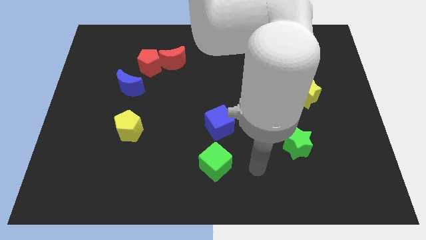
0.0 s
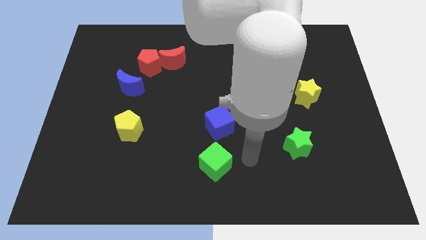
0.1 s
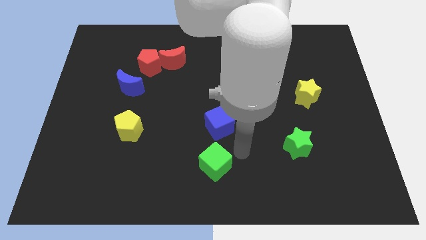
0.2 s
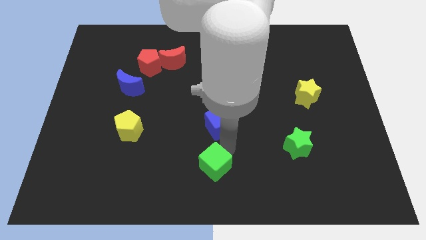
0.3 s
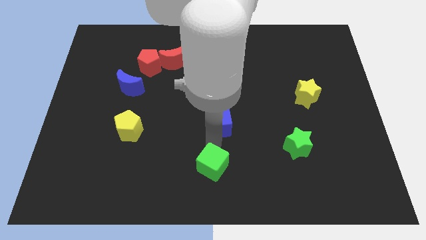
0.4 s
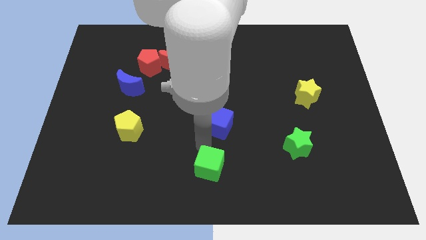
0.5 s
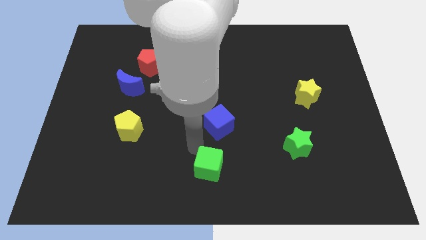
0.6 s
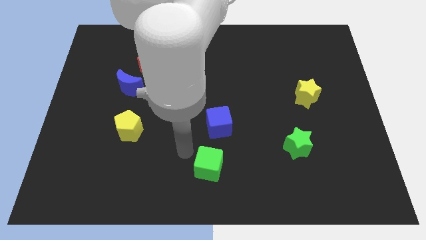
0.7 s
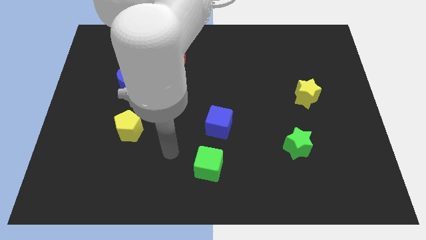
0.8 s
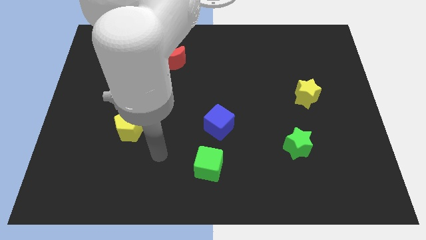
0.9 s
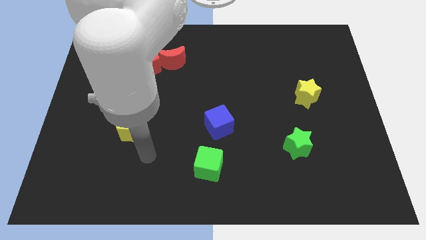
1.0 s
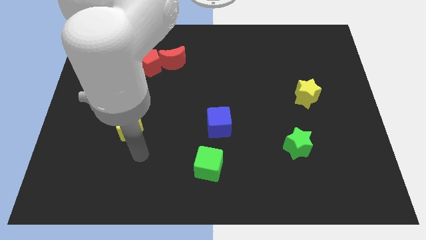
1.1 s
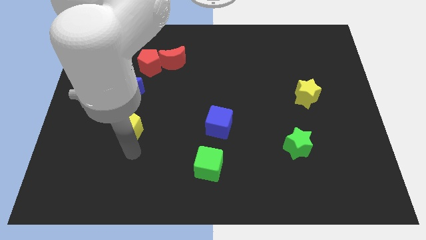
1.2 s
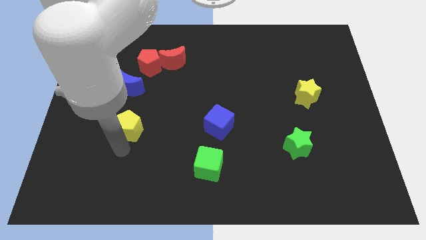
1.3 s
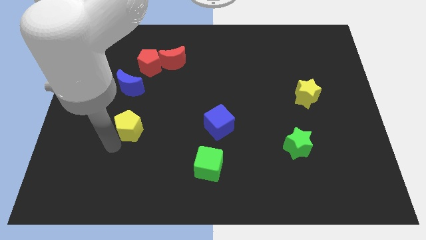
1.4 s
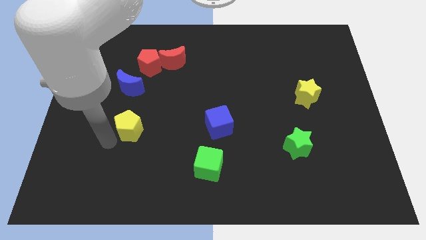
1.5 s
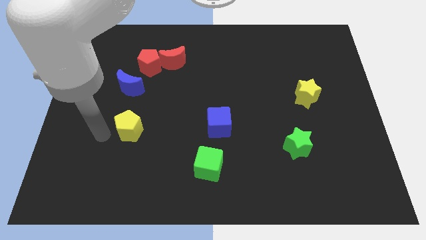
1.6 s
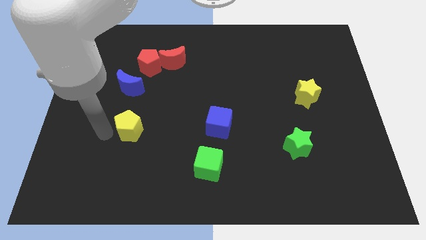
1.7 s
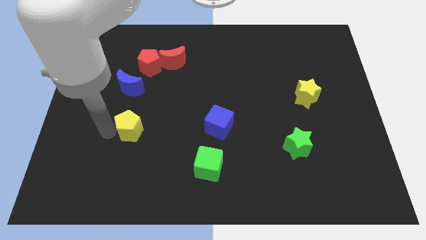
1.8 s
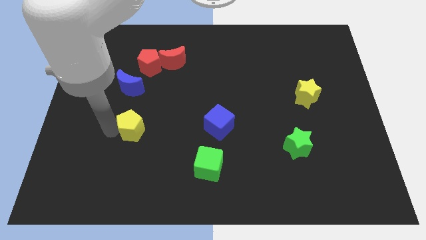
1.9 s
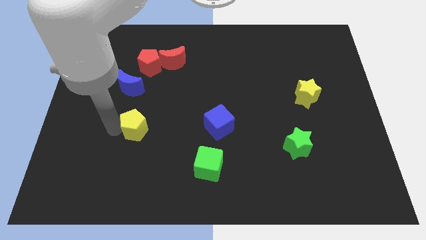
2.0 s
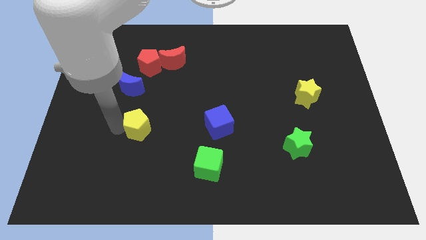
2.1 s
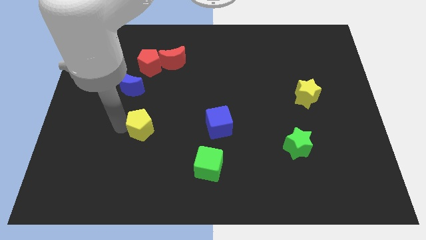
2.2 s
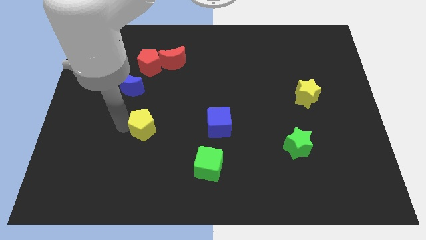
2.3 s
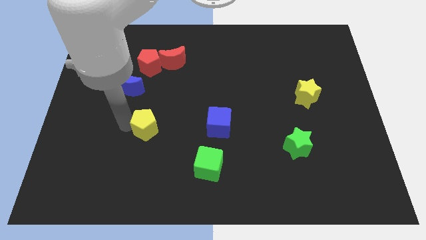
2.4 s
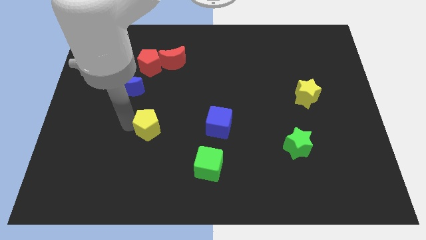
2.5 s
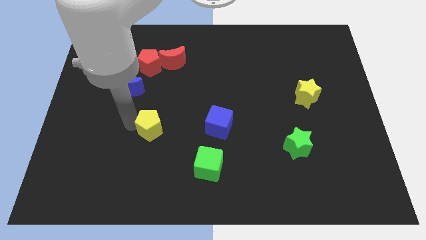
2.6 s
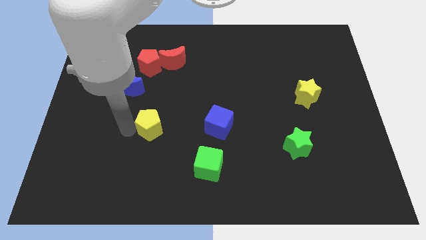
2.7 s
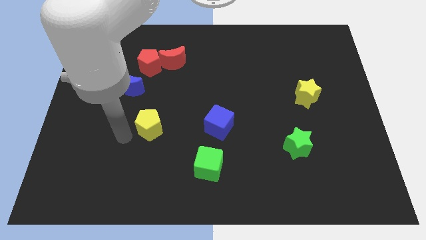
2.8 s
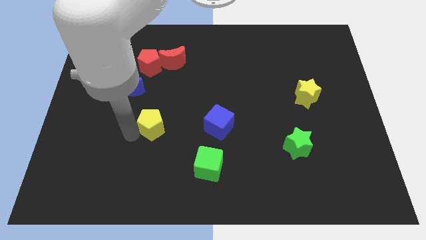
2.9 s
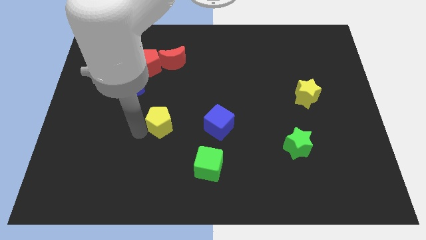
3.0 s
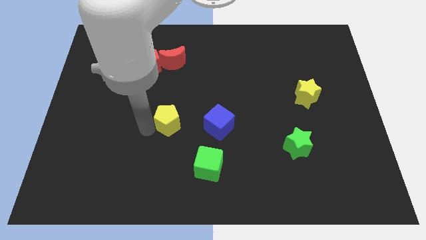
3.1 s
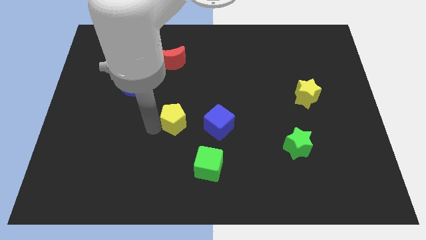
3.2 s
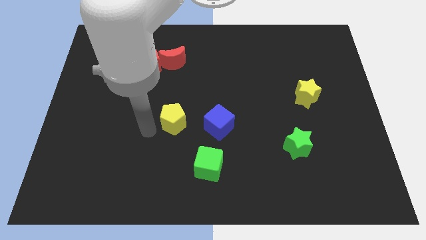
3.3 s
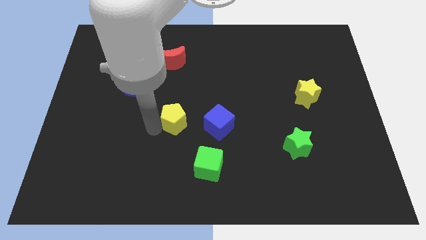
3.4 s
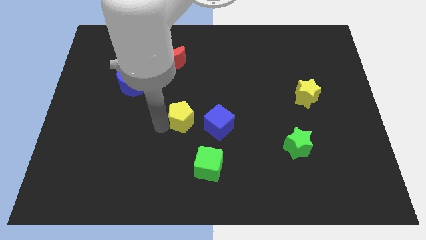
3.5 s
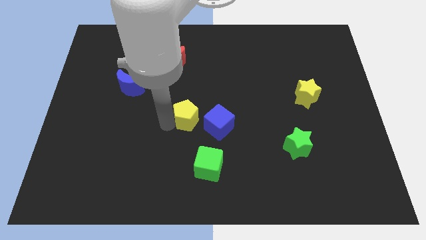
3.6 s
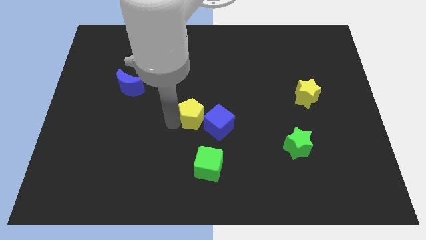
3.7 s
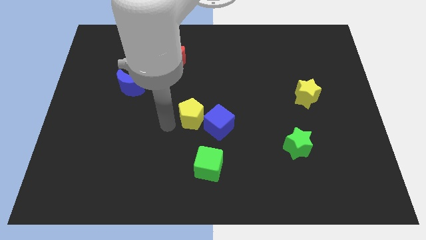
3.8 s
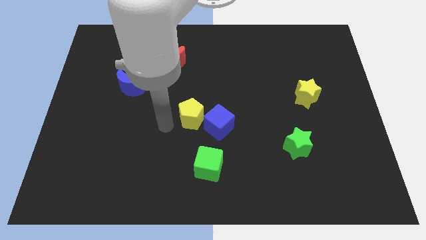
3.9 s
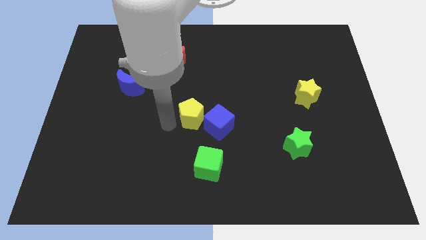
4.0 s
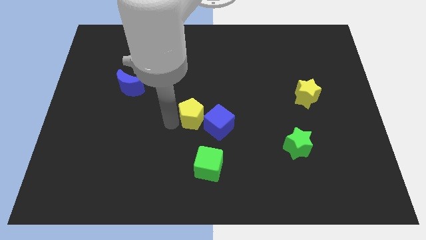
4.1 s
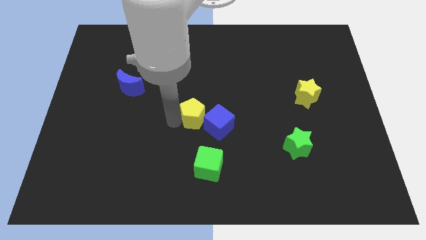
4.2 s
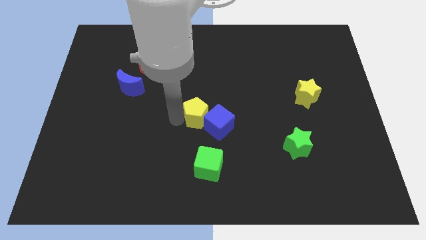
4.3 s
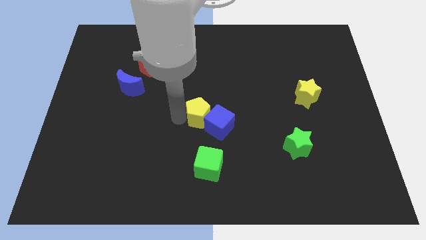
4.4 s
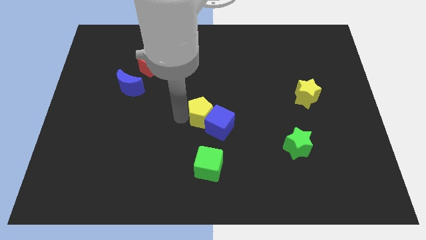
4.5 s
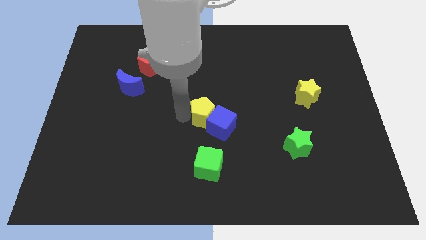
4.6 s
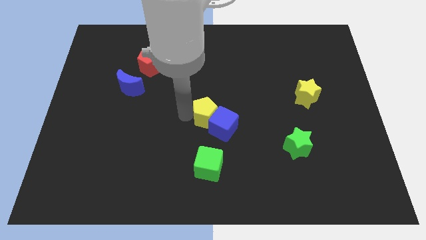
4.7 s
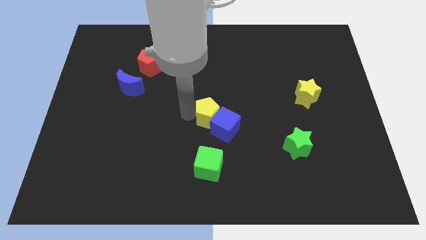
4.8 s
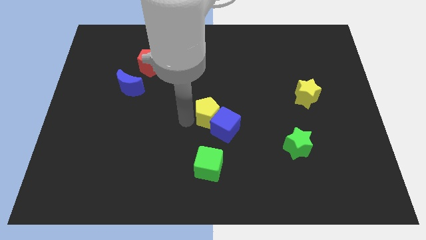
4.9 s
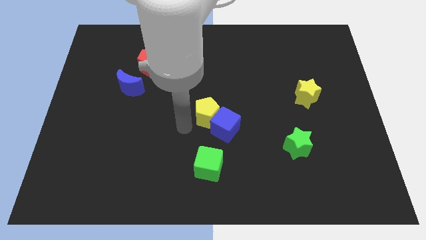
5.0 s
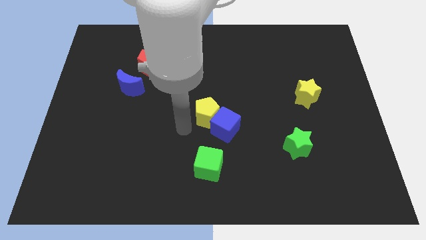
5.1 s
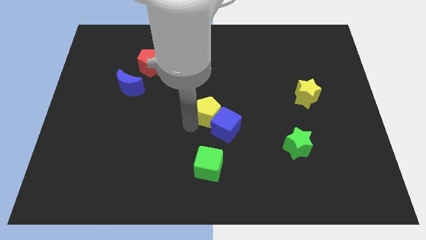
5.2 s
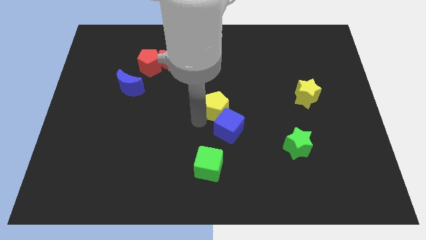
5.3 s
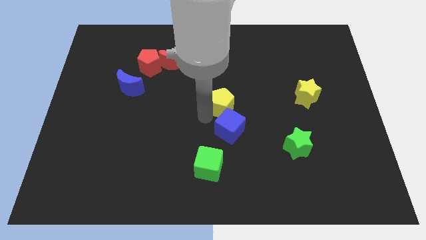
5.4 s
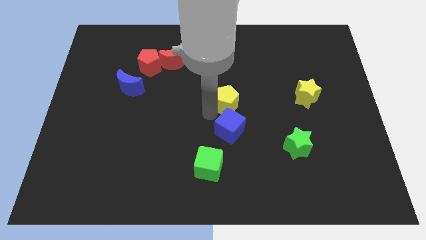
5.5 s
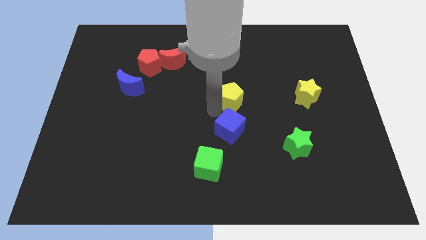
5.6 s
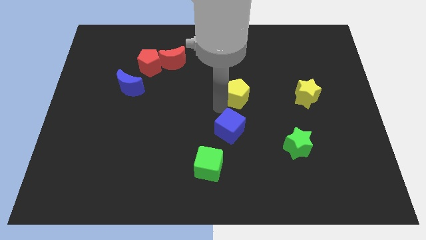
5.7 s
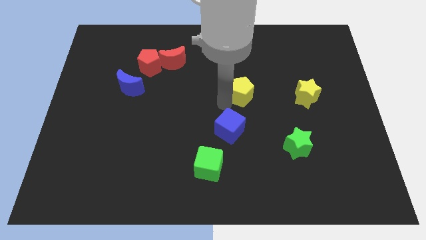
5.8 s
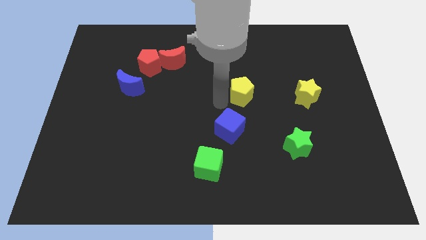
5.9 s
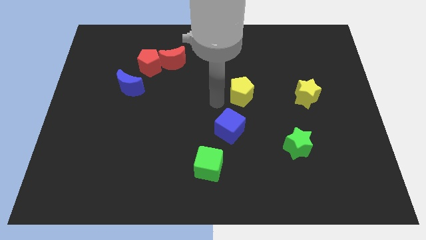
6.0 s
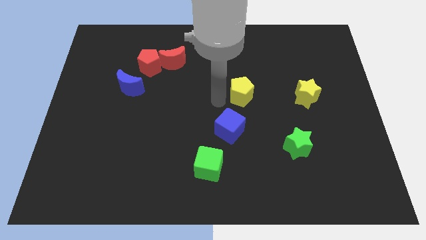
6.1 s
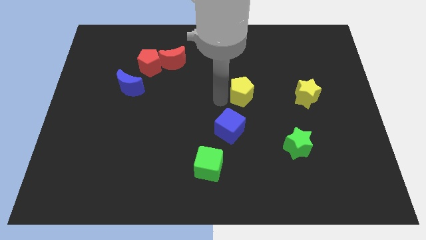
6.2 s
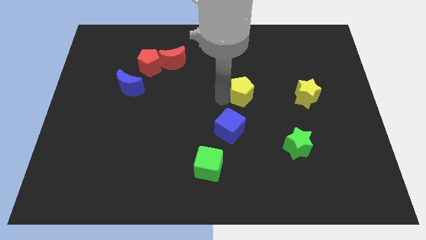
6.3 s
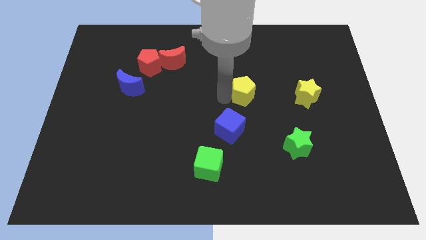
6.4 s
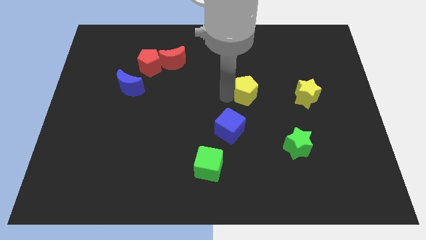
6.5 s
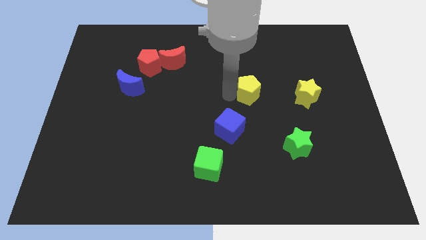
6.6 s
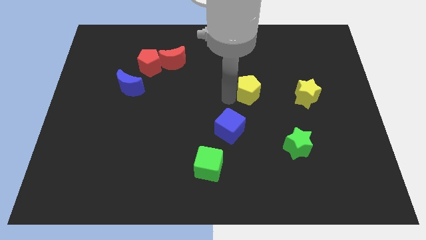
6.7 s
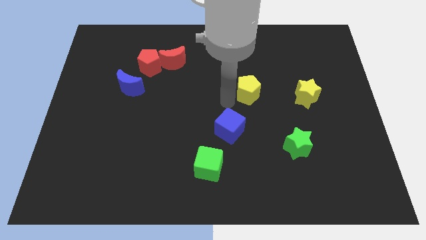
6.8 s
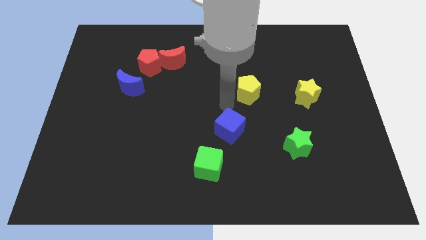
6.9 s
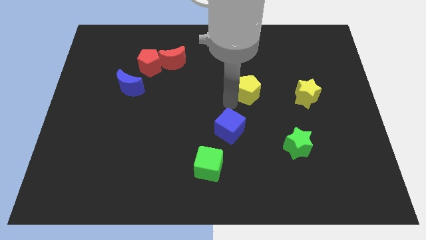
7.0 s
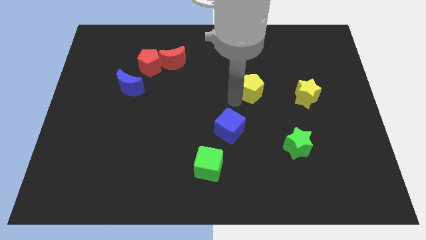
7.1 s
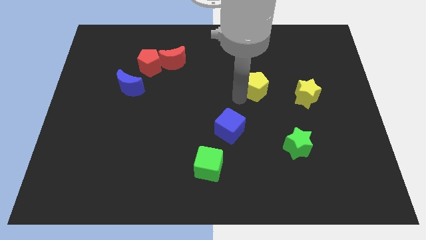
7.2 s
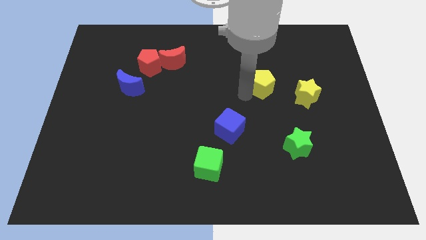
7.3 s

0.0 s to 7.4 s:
move the yellow pentagon diagonally up and to the left of the yellow star

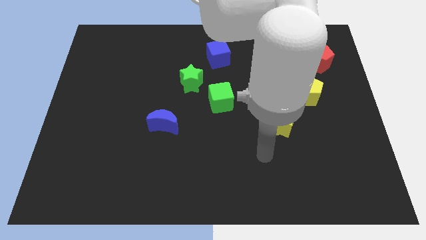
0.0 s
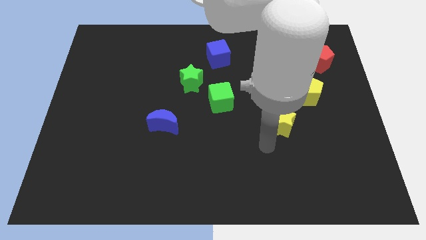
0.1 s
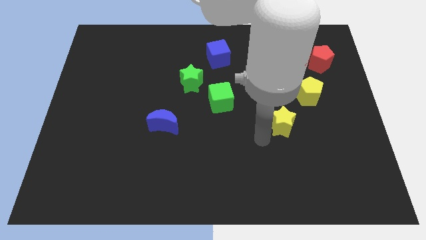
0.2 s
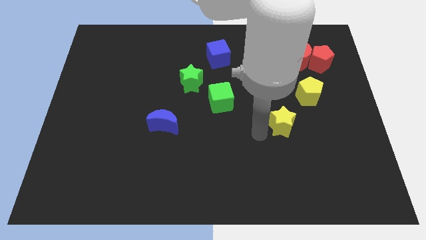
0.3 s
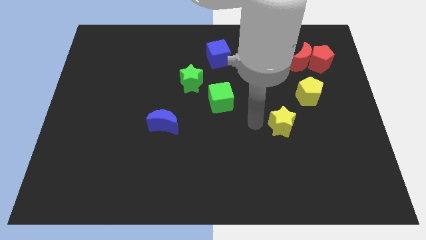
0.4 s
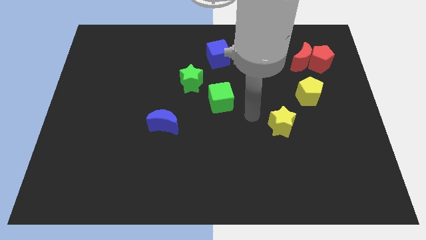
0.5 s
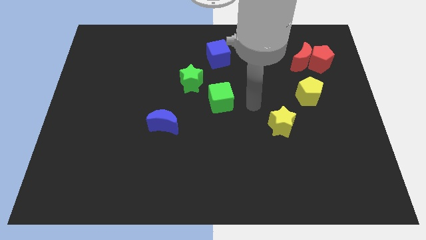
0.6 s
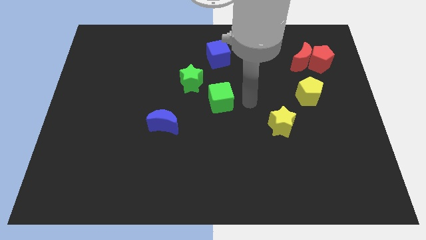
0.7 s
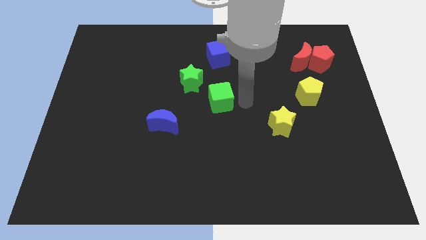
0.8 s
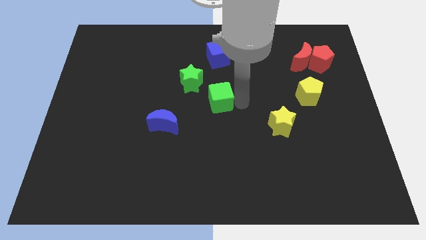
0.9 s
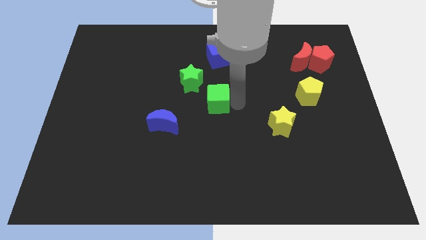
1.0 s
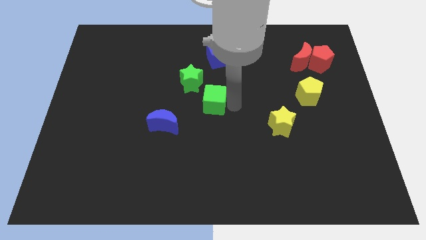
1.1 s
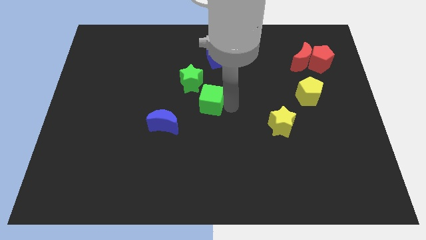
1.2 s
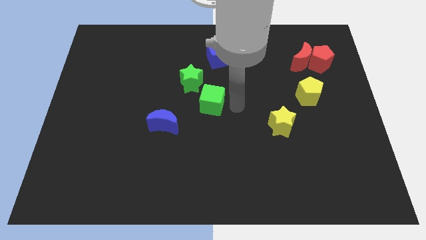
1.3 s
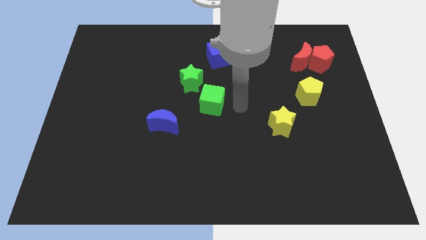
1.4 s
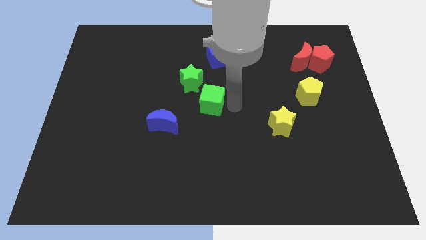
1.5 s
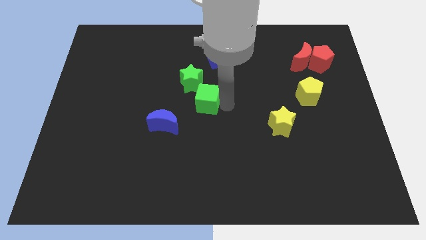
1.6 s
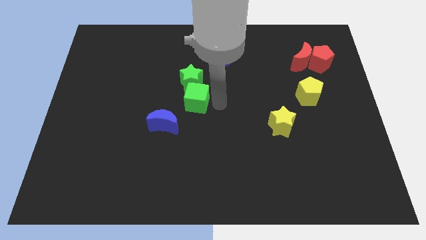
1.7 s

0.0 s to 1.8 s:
move the green cube diagonally down and to the left of the green star
